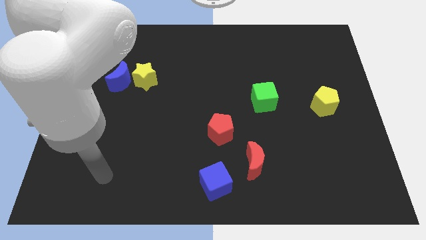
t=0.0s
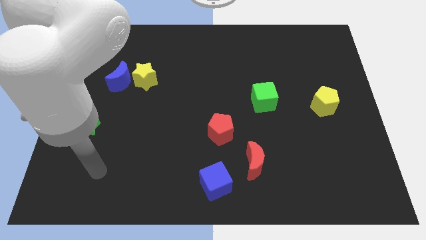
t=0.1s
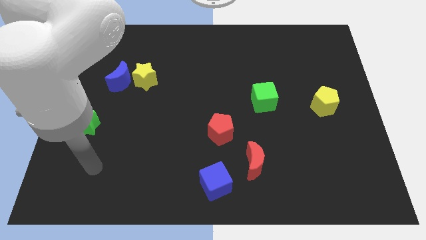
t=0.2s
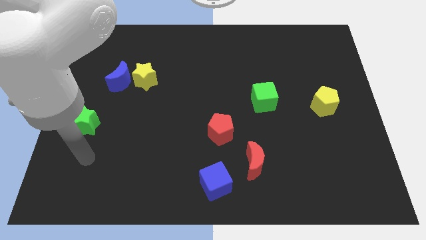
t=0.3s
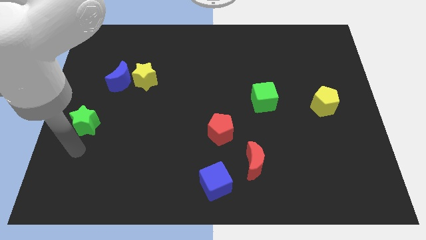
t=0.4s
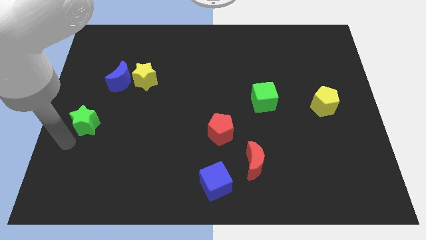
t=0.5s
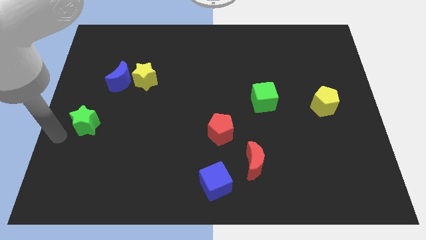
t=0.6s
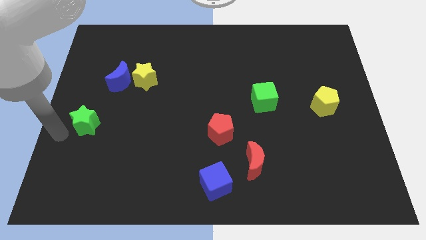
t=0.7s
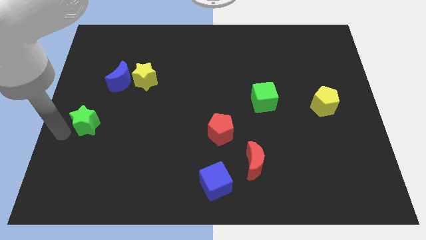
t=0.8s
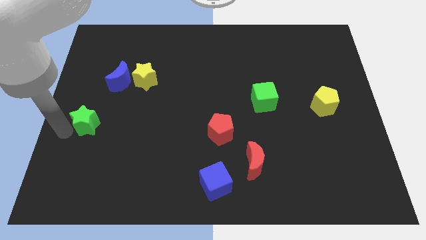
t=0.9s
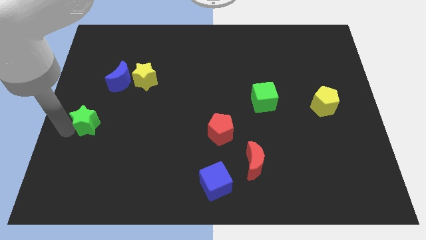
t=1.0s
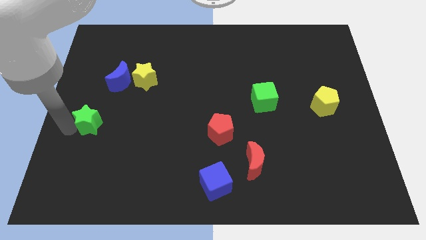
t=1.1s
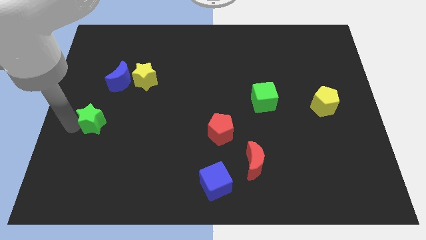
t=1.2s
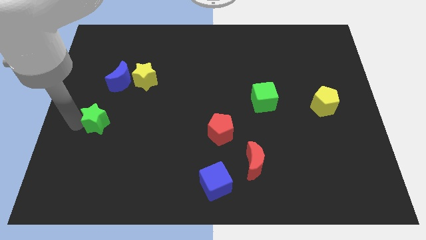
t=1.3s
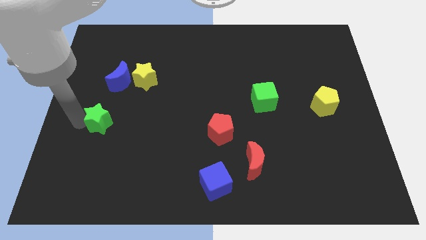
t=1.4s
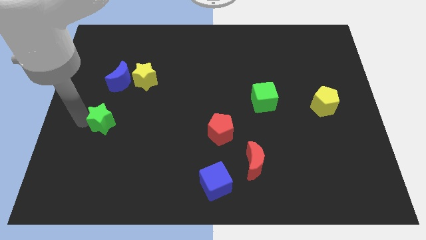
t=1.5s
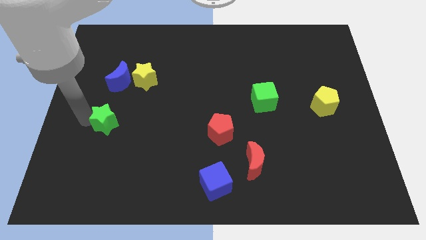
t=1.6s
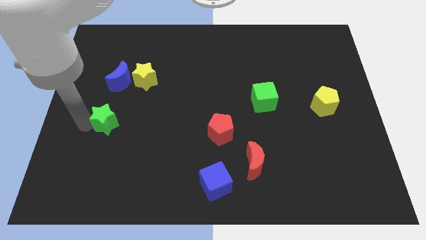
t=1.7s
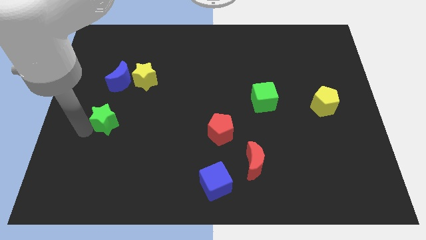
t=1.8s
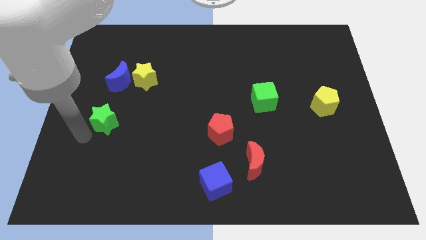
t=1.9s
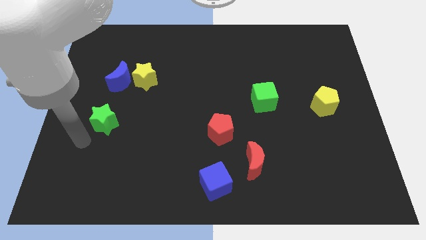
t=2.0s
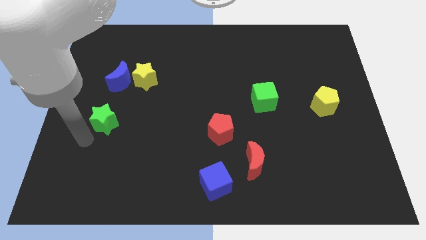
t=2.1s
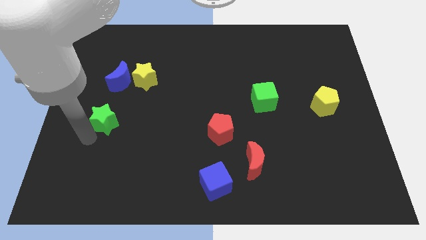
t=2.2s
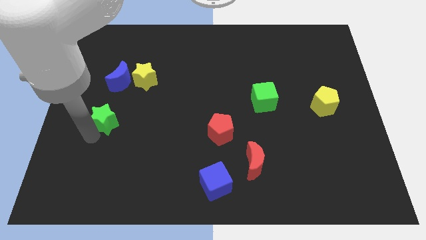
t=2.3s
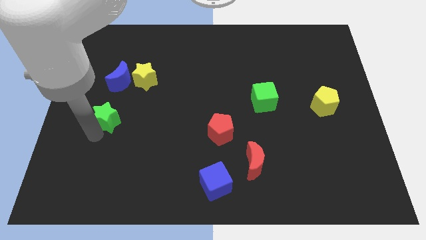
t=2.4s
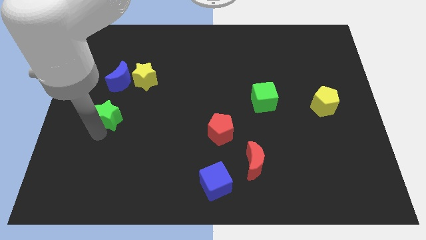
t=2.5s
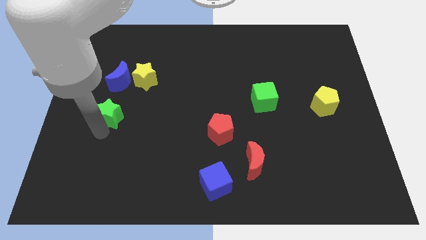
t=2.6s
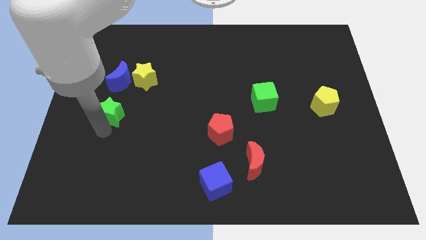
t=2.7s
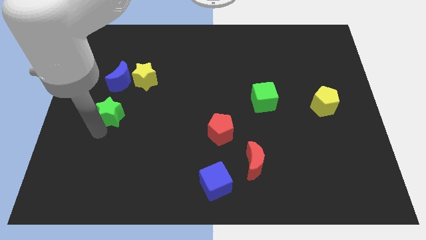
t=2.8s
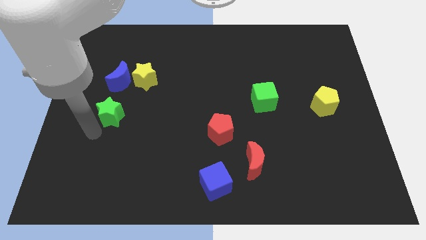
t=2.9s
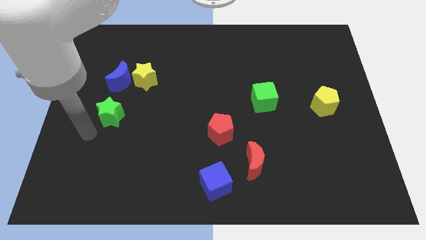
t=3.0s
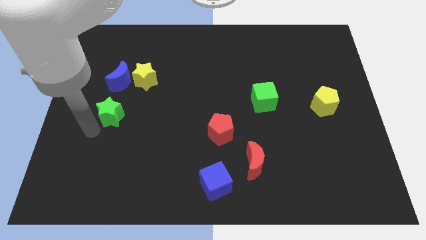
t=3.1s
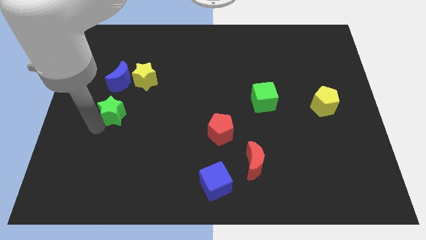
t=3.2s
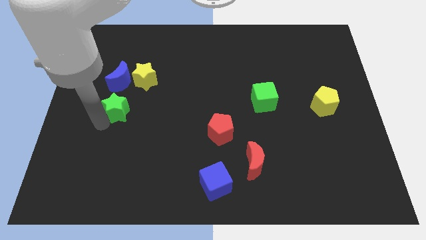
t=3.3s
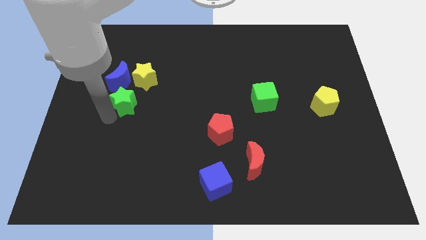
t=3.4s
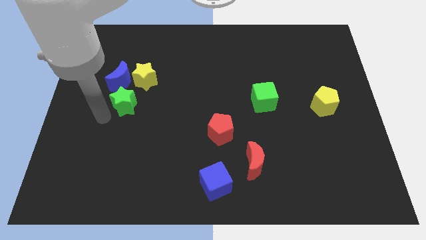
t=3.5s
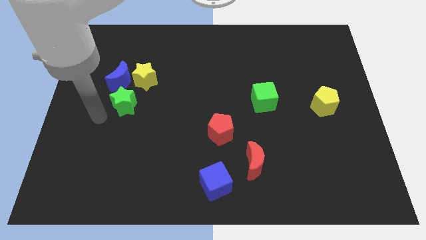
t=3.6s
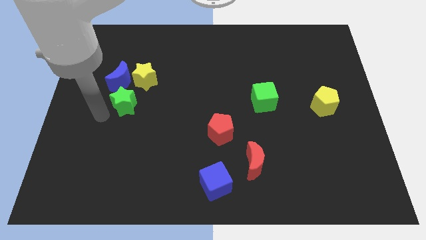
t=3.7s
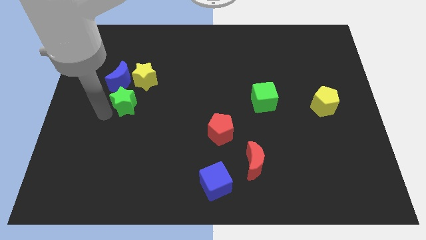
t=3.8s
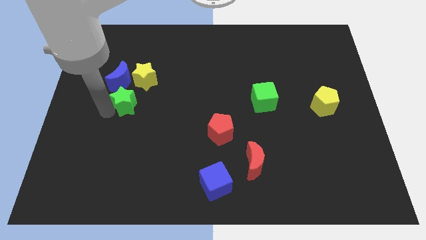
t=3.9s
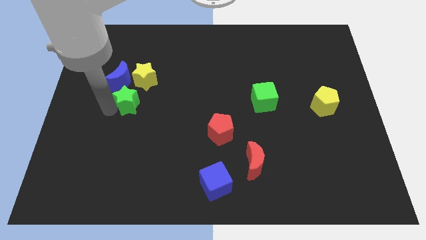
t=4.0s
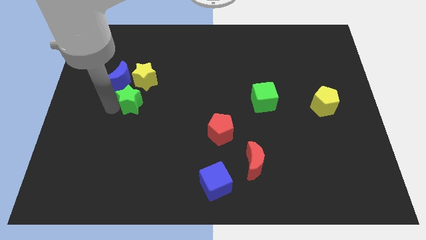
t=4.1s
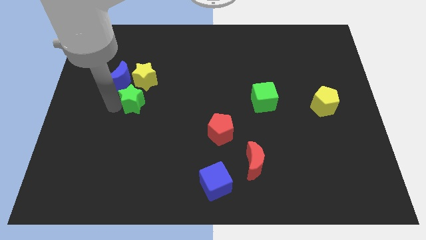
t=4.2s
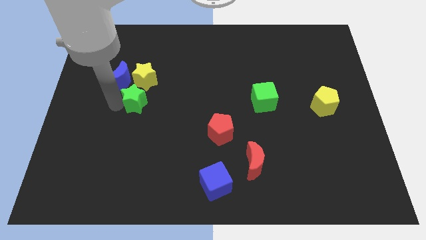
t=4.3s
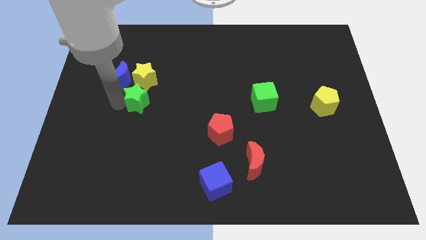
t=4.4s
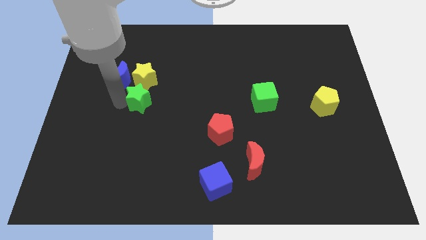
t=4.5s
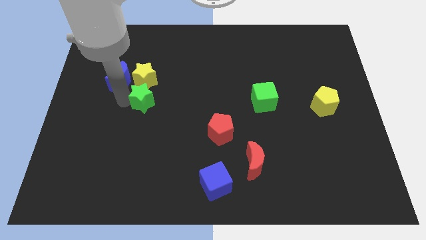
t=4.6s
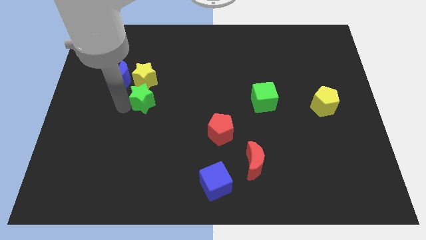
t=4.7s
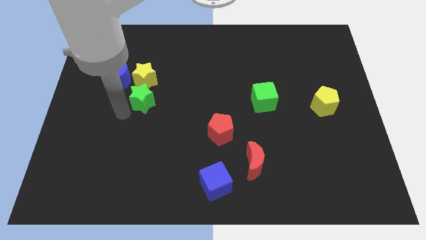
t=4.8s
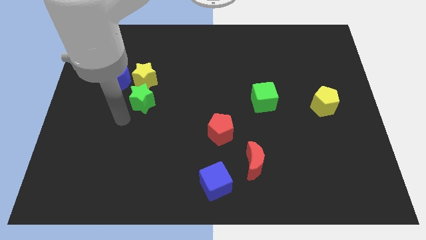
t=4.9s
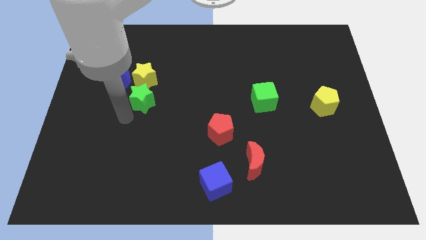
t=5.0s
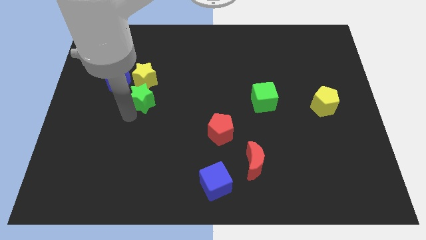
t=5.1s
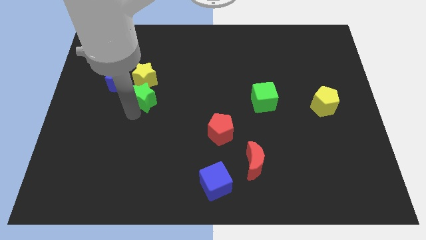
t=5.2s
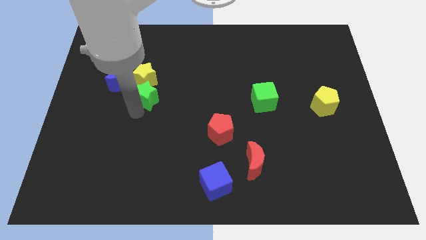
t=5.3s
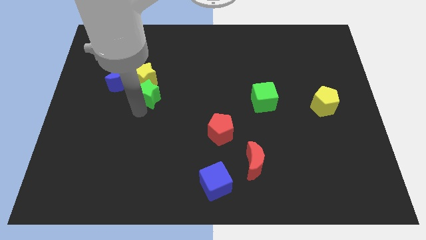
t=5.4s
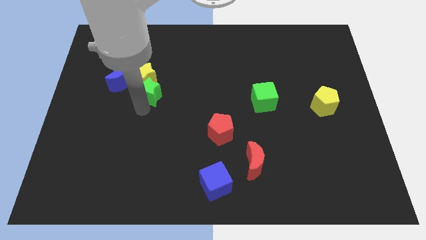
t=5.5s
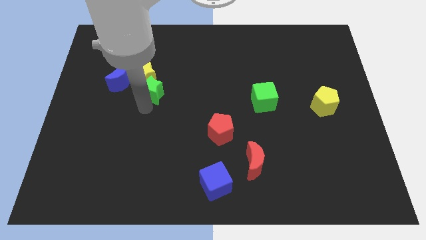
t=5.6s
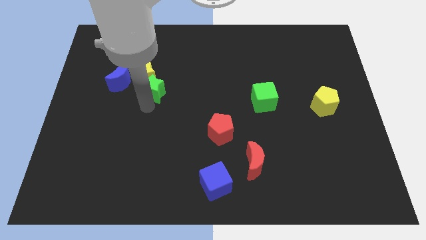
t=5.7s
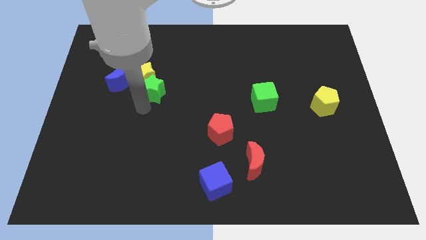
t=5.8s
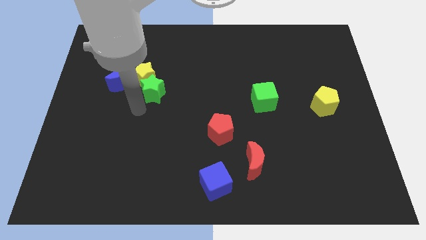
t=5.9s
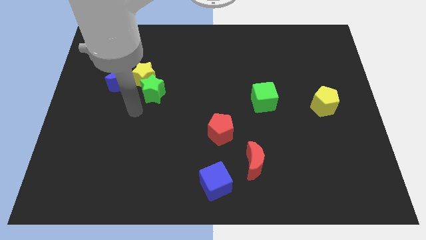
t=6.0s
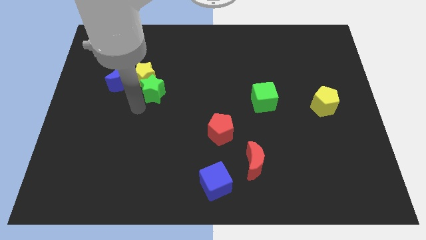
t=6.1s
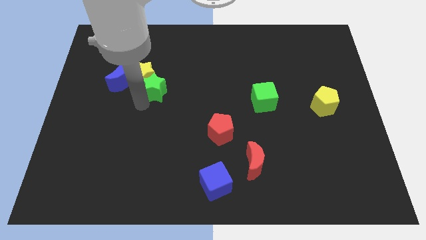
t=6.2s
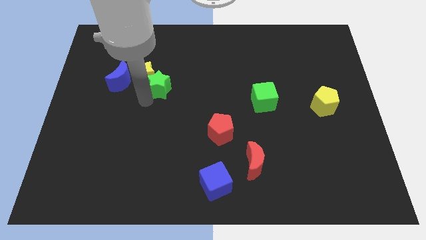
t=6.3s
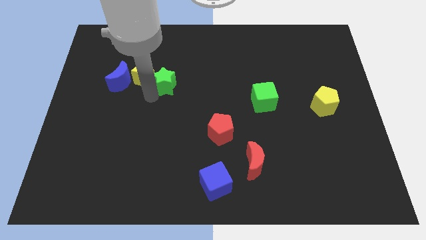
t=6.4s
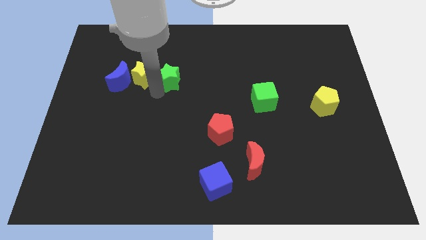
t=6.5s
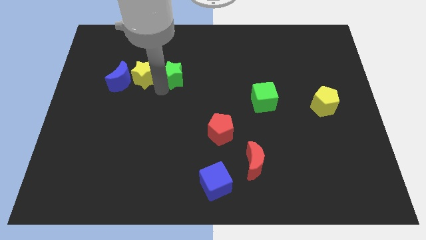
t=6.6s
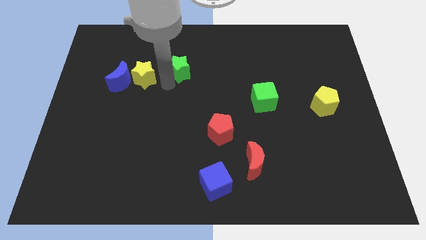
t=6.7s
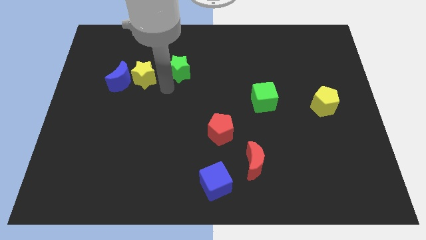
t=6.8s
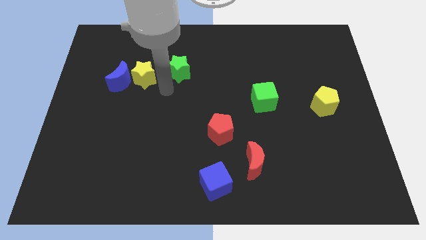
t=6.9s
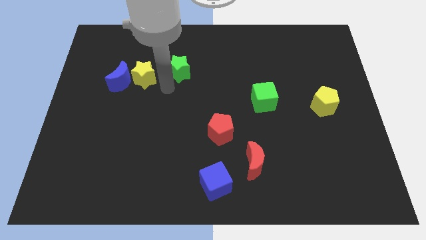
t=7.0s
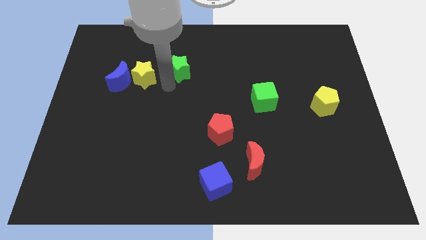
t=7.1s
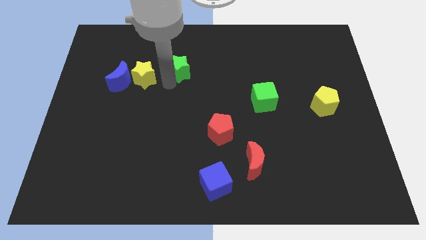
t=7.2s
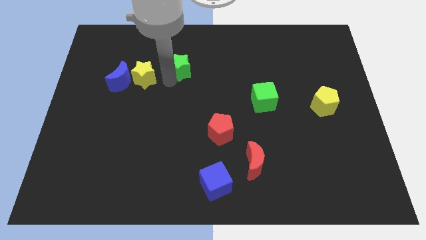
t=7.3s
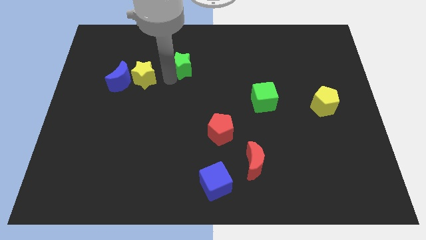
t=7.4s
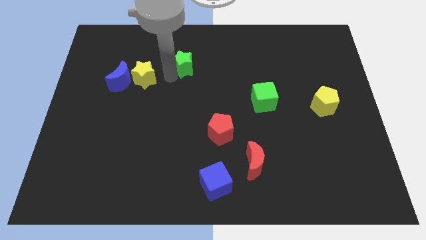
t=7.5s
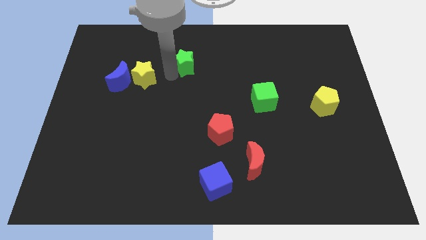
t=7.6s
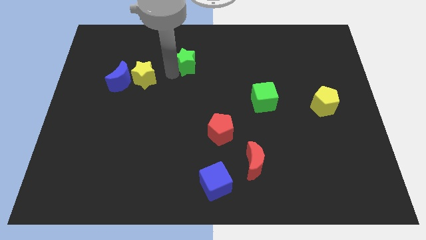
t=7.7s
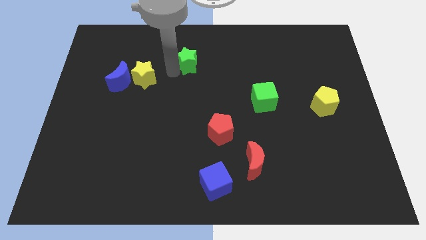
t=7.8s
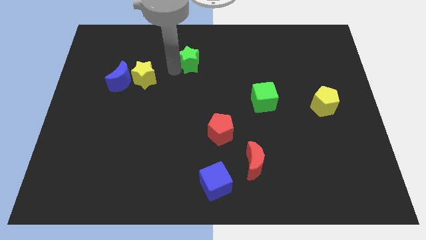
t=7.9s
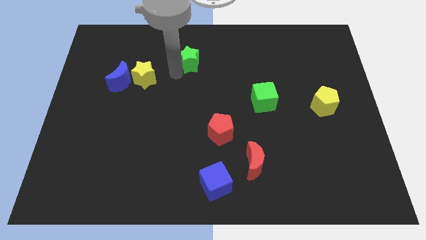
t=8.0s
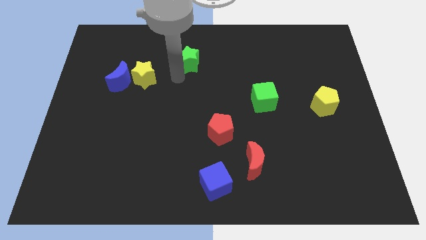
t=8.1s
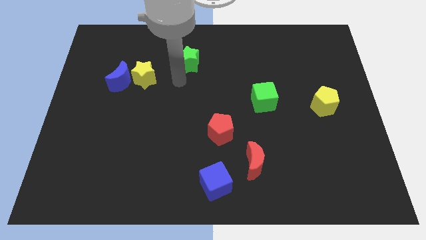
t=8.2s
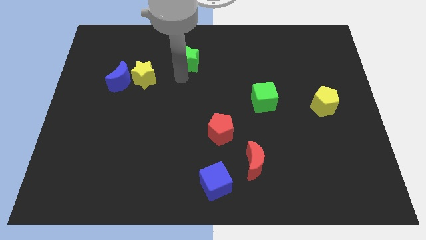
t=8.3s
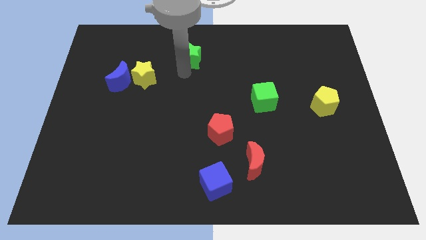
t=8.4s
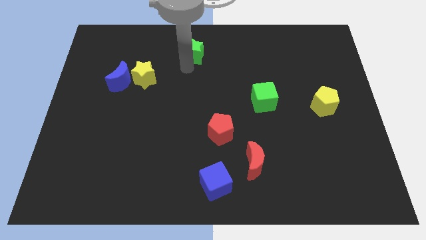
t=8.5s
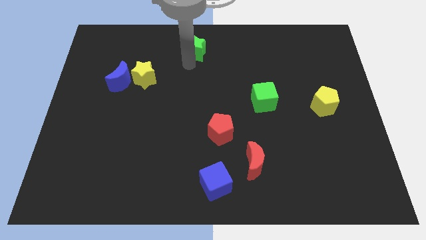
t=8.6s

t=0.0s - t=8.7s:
push the green star to the towards your base
